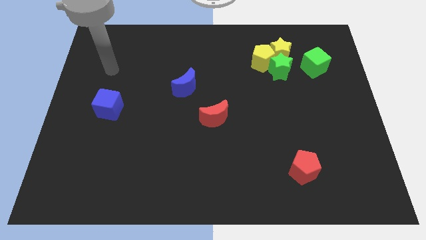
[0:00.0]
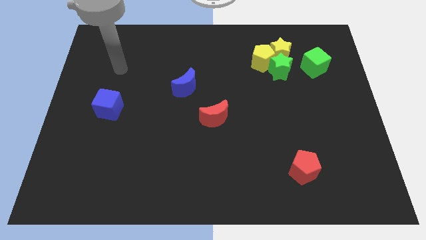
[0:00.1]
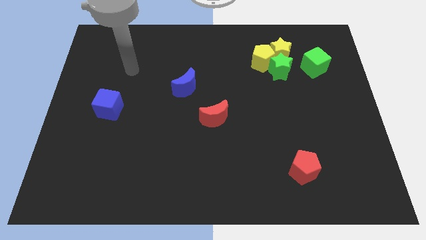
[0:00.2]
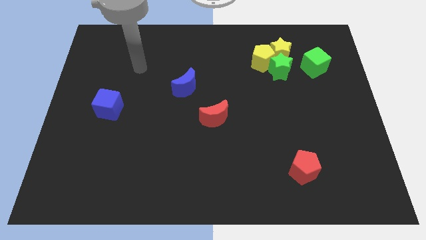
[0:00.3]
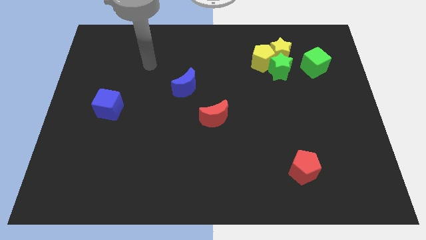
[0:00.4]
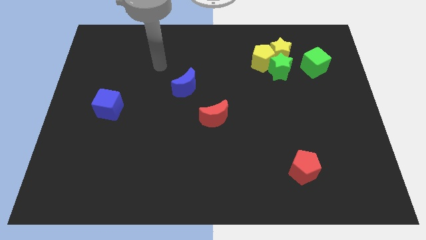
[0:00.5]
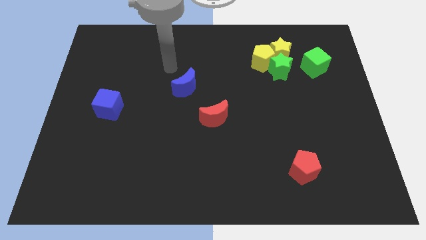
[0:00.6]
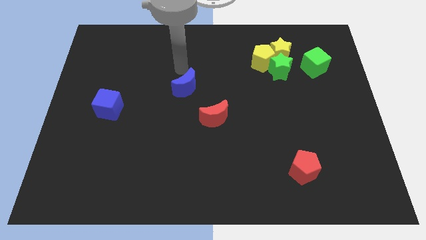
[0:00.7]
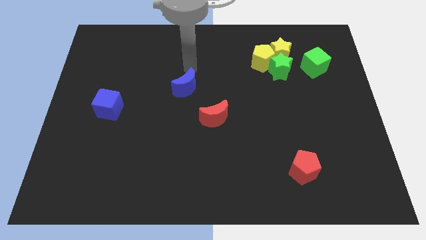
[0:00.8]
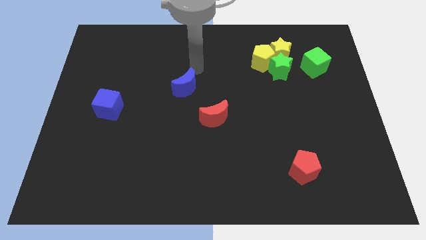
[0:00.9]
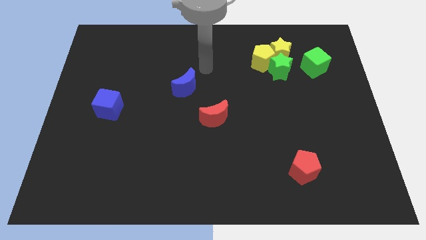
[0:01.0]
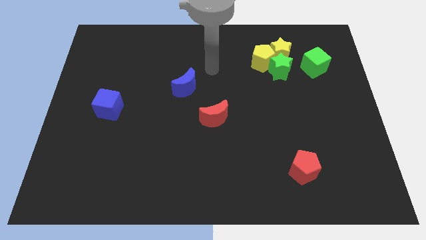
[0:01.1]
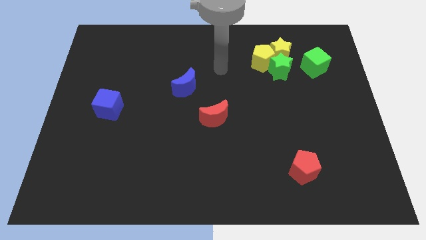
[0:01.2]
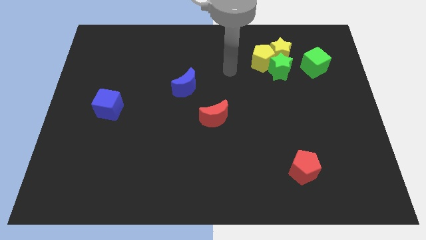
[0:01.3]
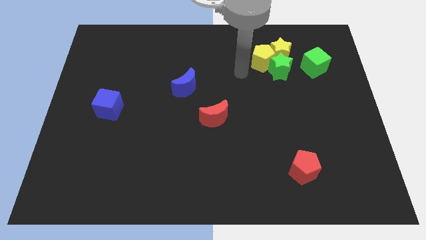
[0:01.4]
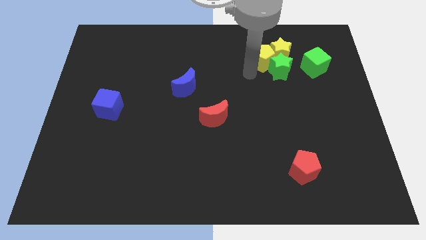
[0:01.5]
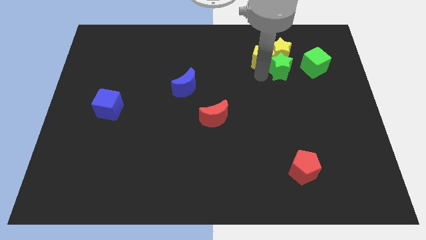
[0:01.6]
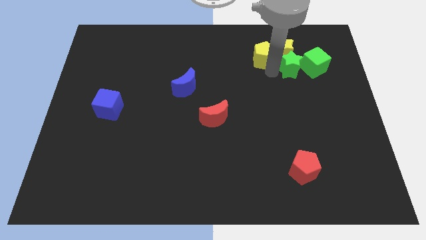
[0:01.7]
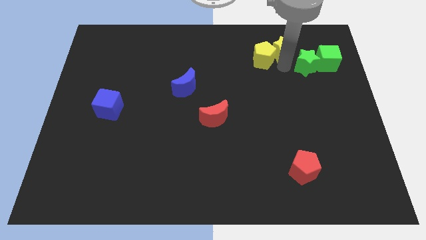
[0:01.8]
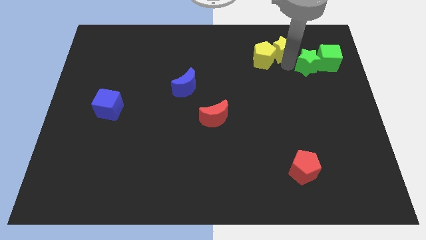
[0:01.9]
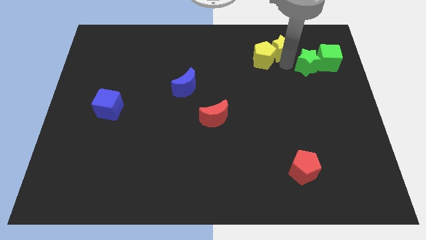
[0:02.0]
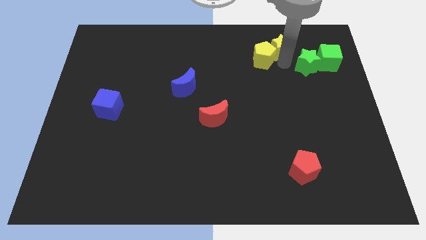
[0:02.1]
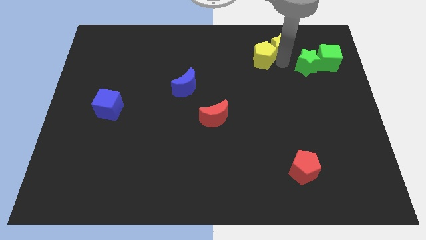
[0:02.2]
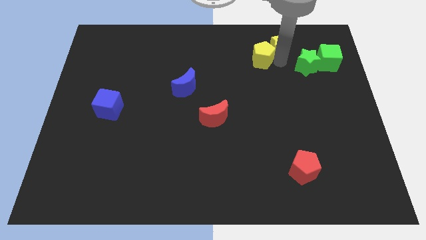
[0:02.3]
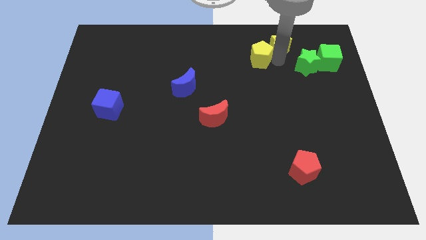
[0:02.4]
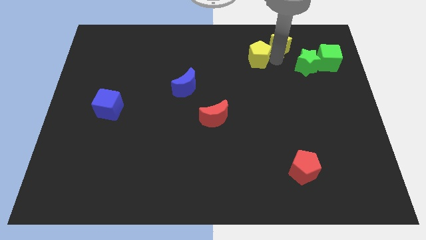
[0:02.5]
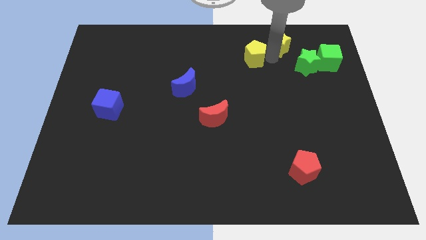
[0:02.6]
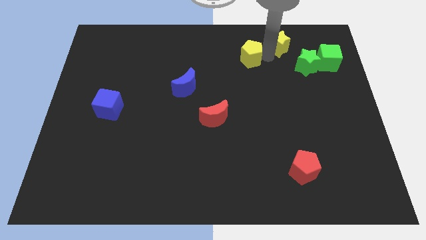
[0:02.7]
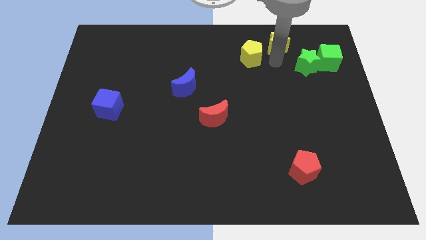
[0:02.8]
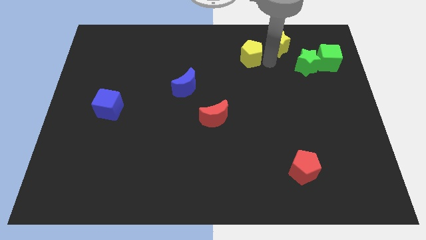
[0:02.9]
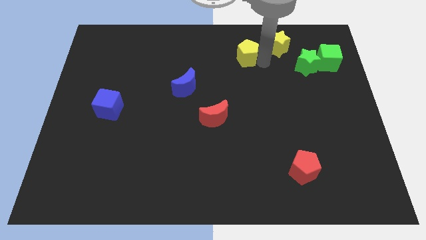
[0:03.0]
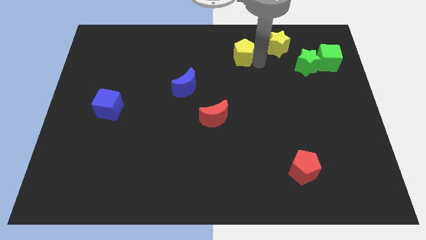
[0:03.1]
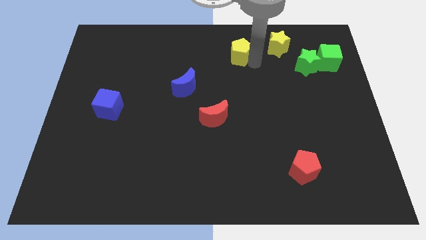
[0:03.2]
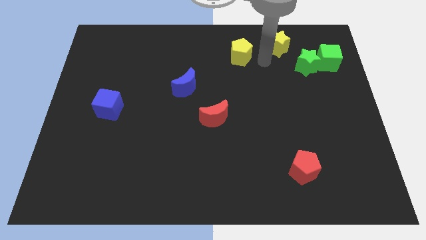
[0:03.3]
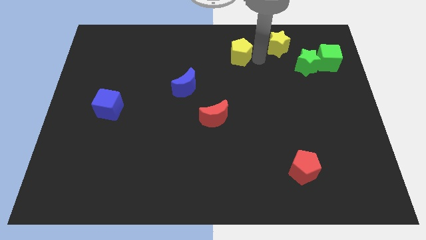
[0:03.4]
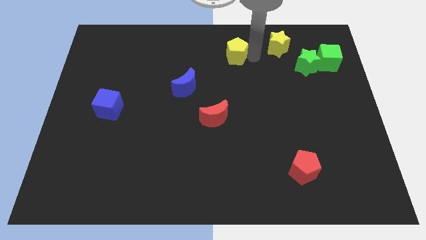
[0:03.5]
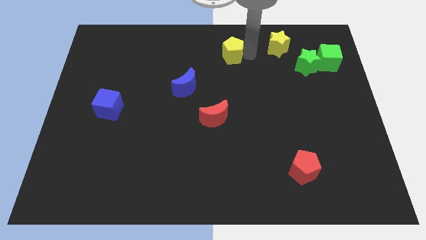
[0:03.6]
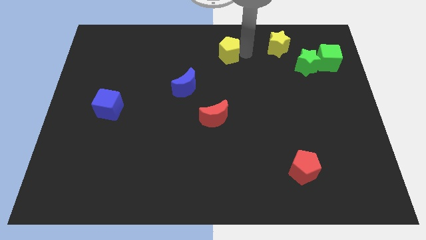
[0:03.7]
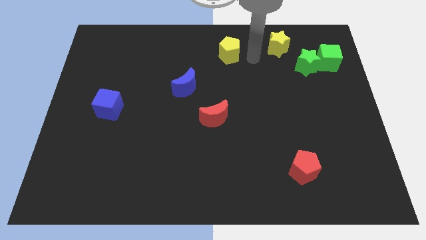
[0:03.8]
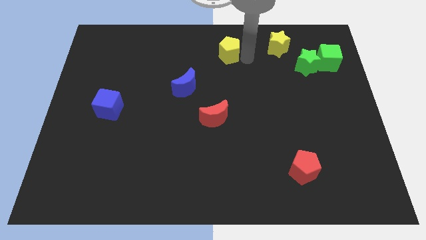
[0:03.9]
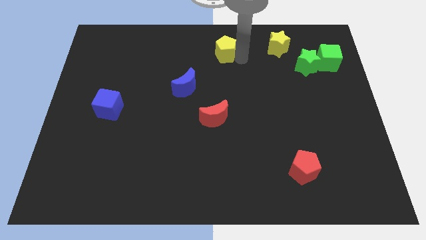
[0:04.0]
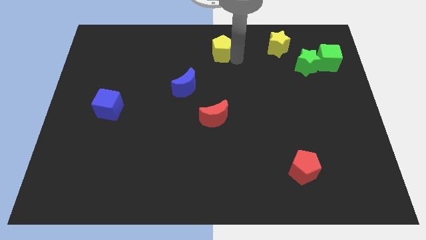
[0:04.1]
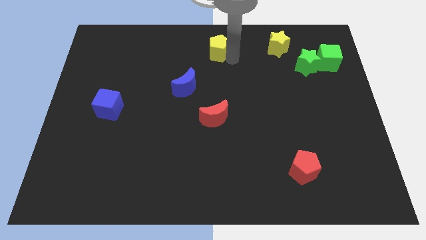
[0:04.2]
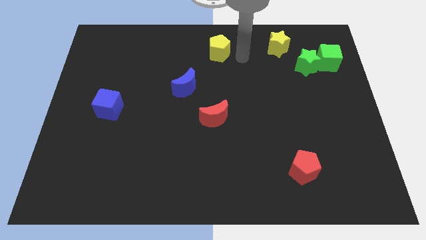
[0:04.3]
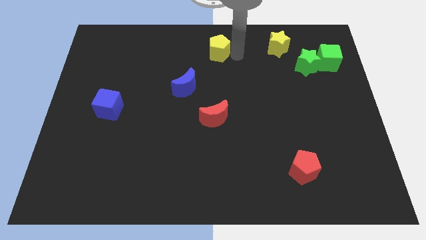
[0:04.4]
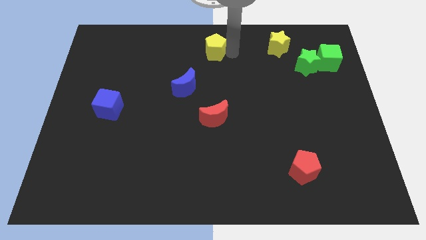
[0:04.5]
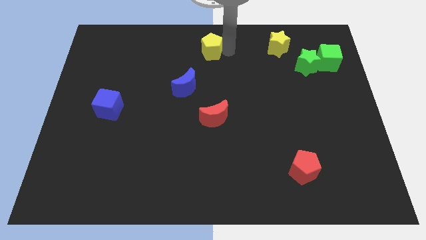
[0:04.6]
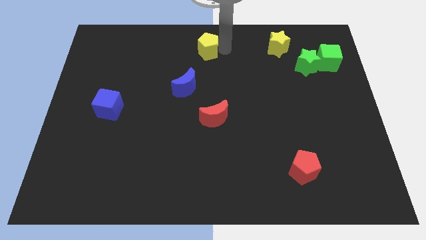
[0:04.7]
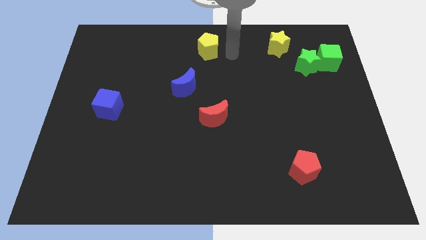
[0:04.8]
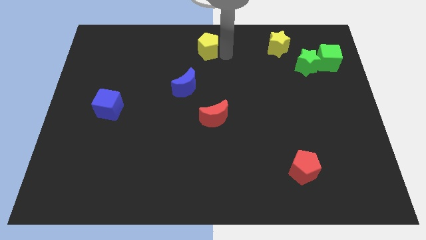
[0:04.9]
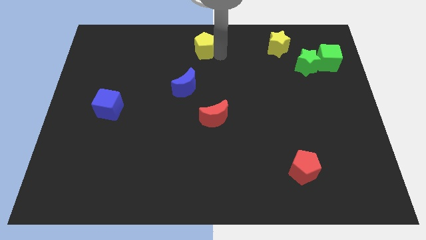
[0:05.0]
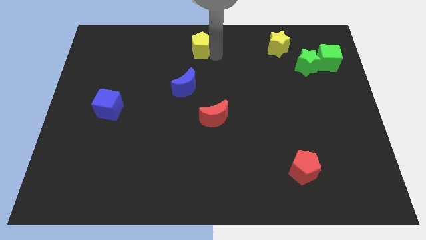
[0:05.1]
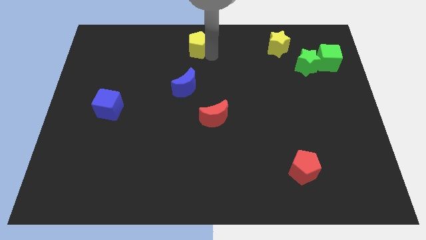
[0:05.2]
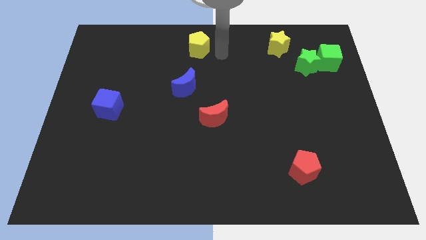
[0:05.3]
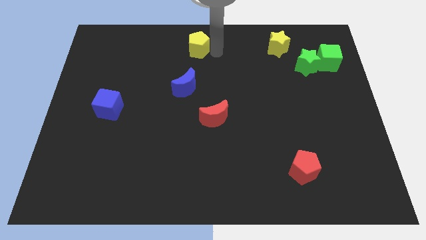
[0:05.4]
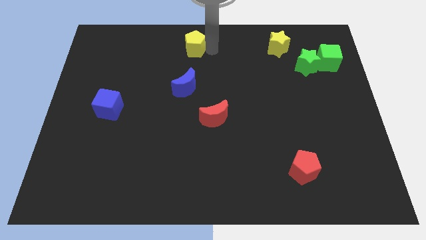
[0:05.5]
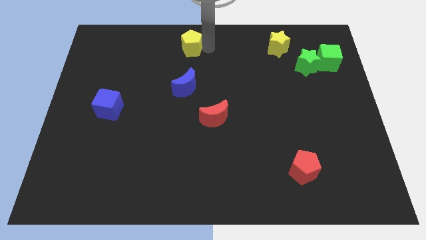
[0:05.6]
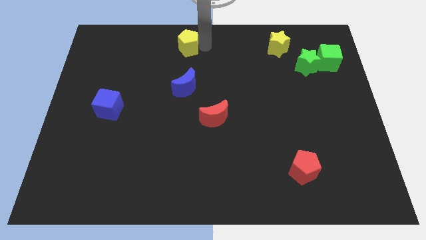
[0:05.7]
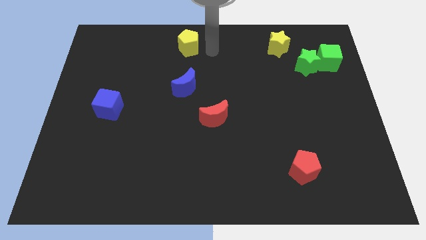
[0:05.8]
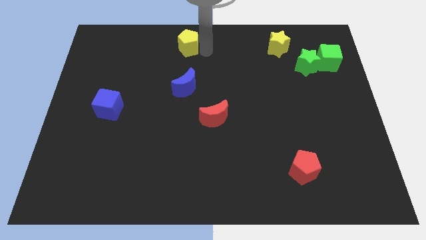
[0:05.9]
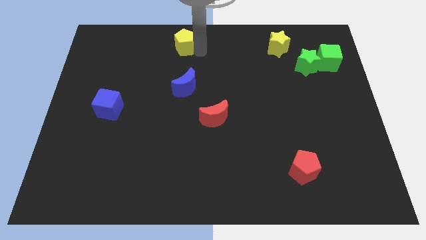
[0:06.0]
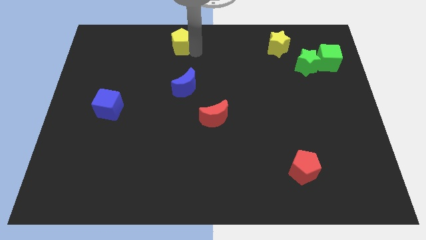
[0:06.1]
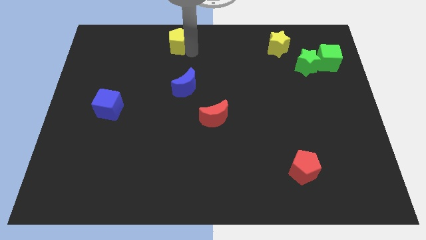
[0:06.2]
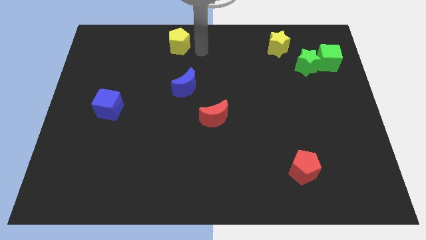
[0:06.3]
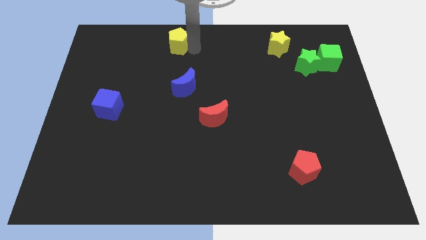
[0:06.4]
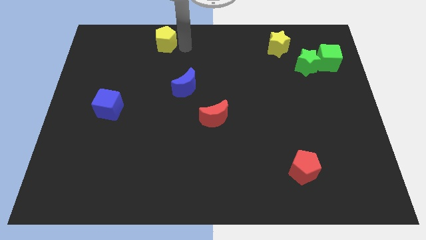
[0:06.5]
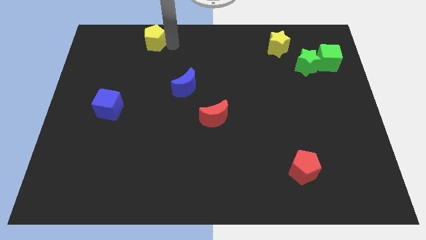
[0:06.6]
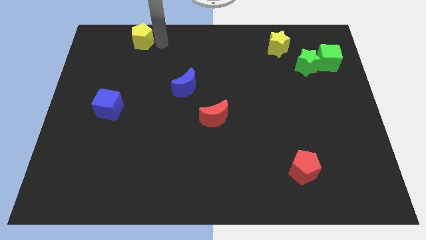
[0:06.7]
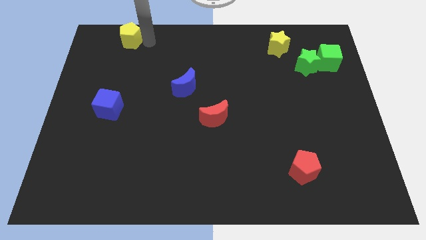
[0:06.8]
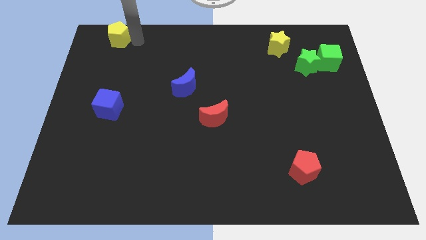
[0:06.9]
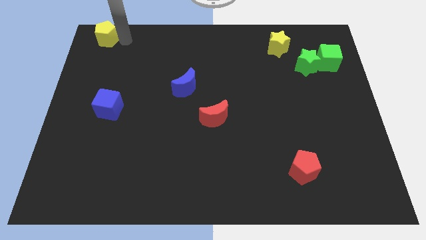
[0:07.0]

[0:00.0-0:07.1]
slide the yellow pentagon to the top left corner
